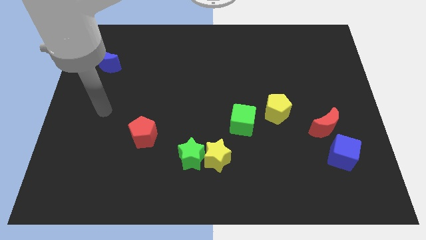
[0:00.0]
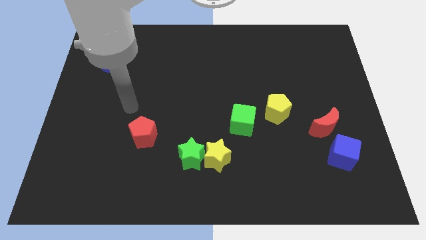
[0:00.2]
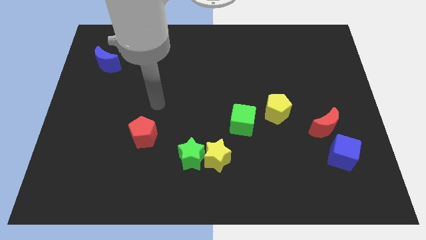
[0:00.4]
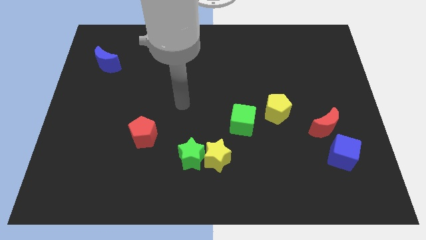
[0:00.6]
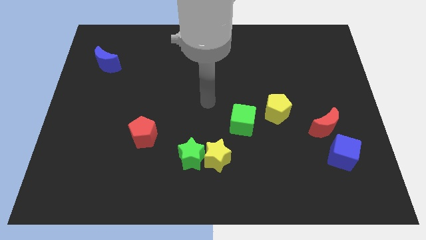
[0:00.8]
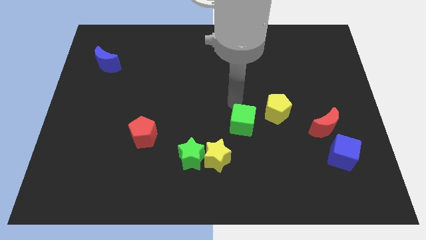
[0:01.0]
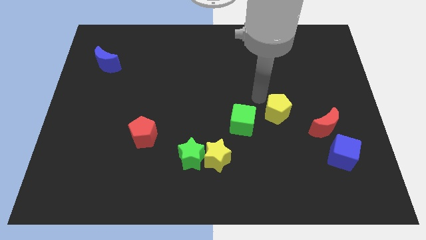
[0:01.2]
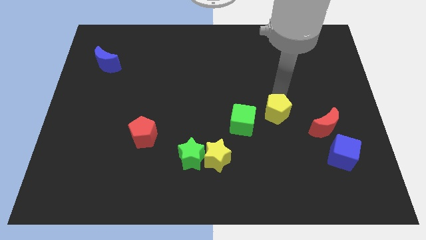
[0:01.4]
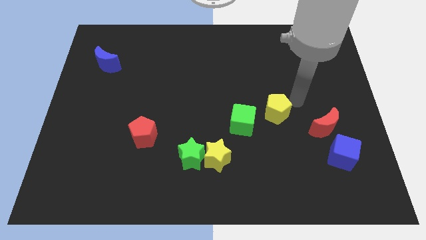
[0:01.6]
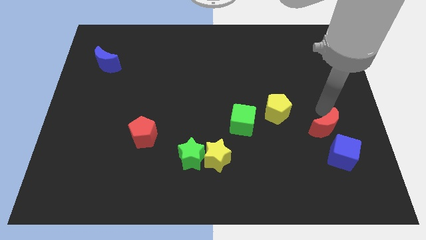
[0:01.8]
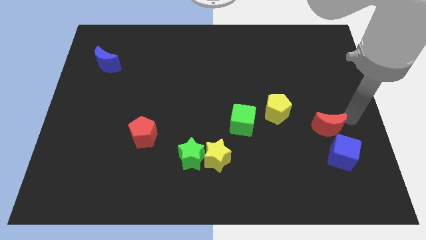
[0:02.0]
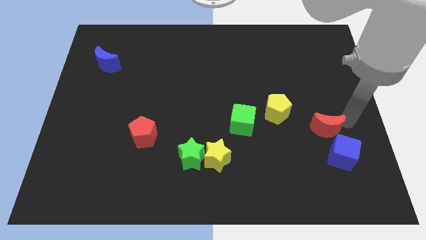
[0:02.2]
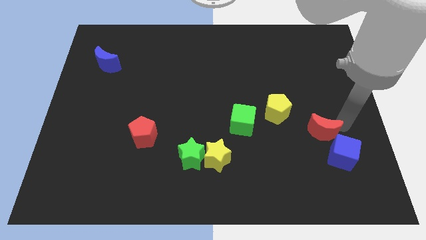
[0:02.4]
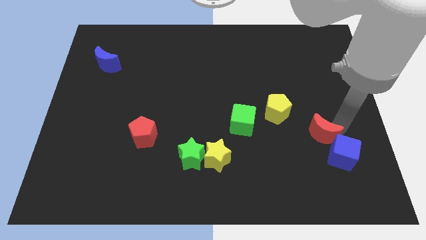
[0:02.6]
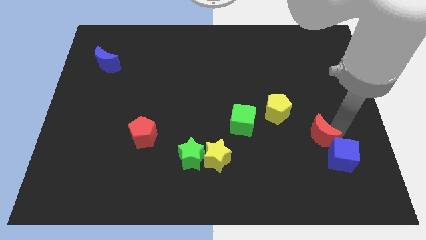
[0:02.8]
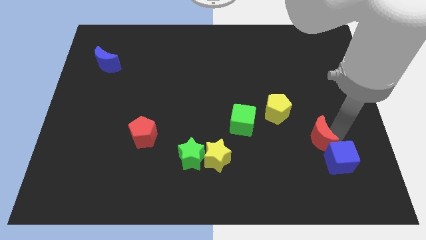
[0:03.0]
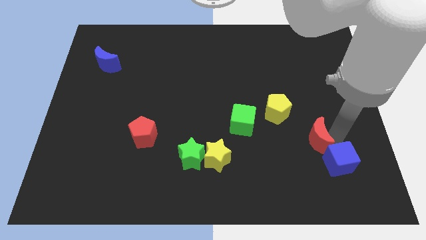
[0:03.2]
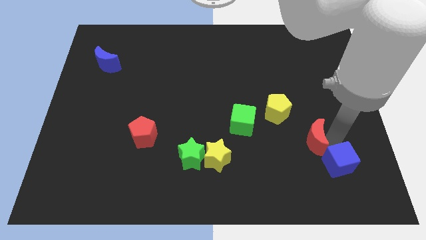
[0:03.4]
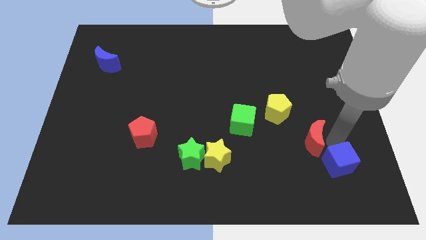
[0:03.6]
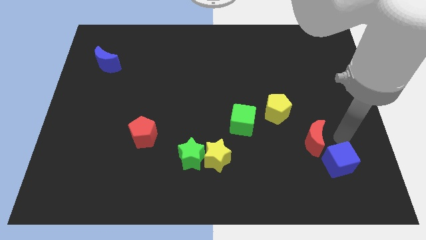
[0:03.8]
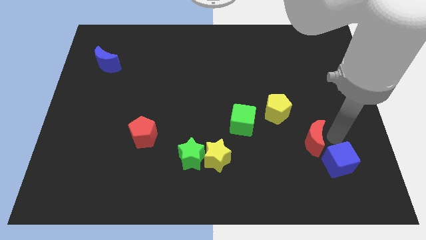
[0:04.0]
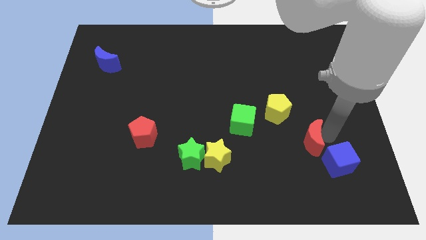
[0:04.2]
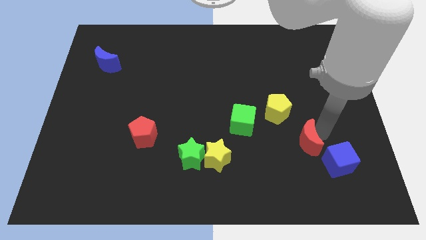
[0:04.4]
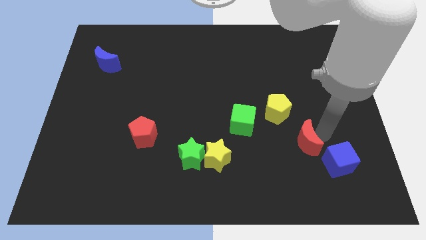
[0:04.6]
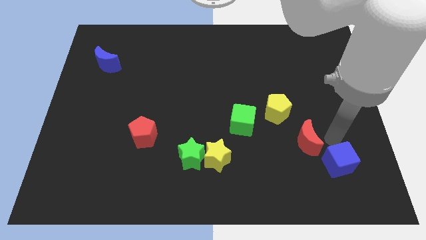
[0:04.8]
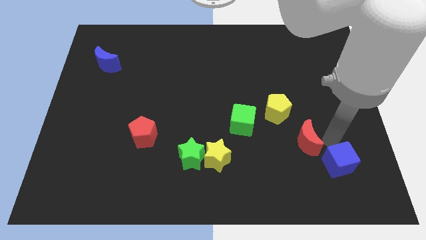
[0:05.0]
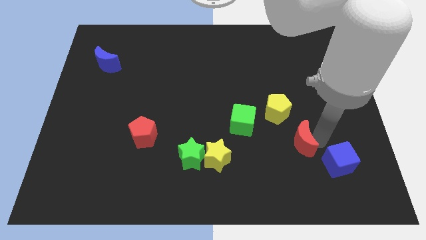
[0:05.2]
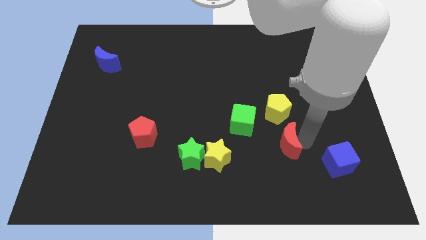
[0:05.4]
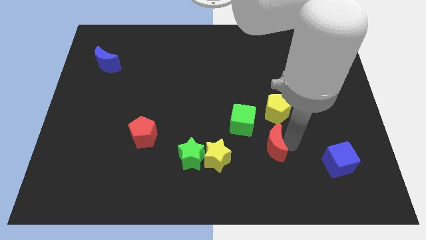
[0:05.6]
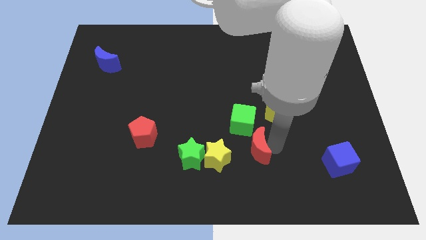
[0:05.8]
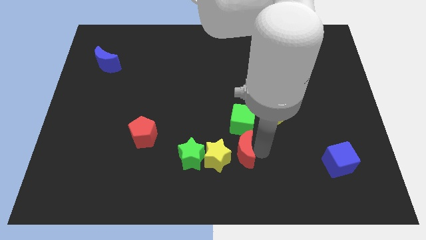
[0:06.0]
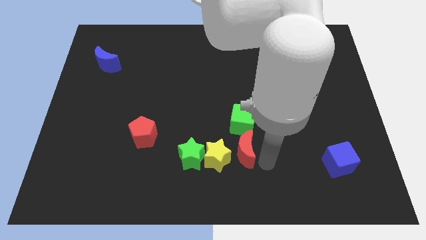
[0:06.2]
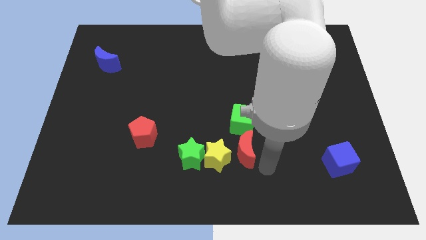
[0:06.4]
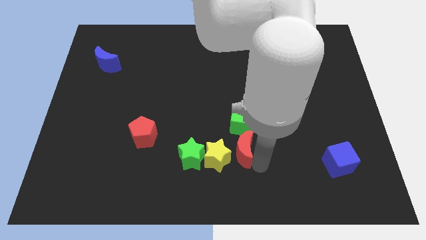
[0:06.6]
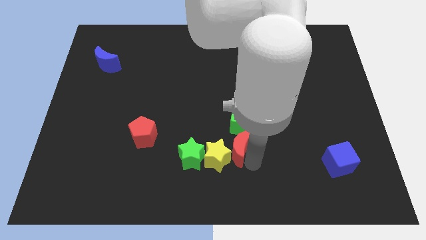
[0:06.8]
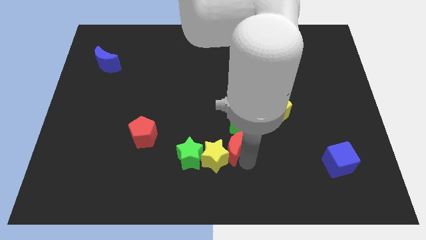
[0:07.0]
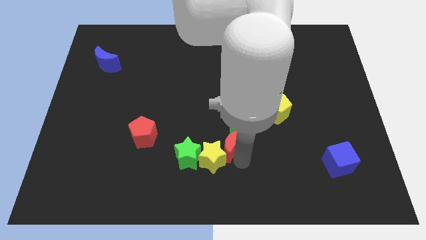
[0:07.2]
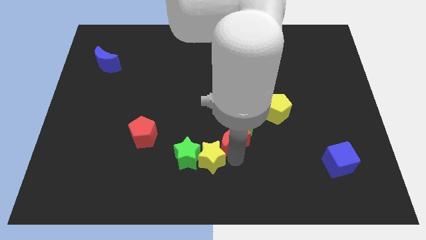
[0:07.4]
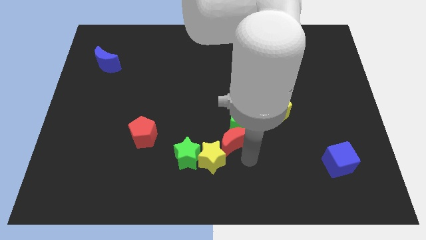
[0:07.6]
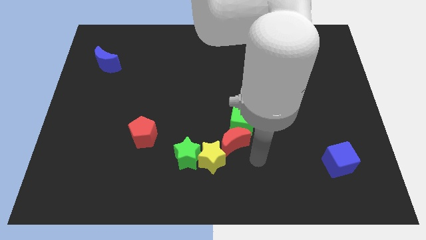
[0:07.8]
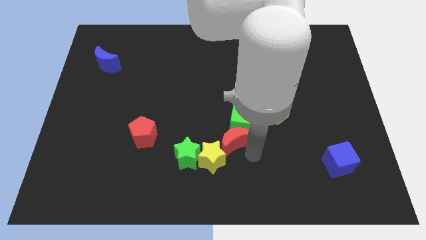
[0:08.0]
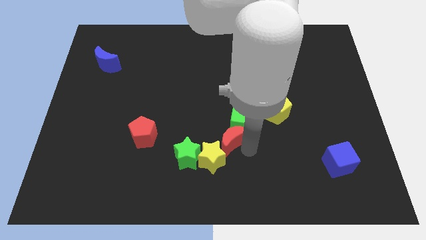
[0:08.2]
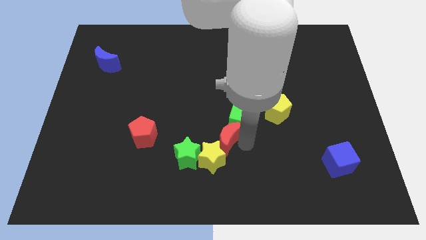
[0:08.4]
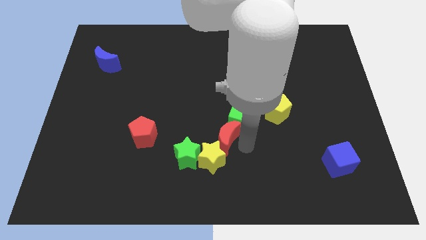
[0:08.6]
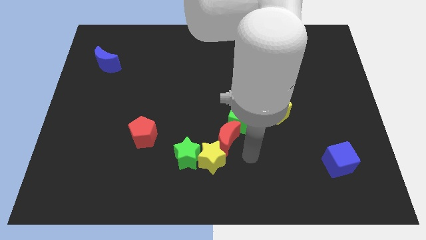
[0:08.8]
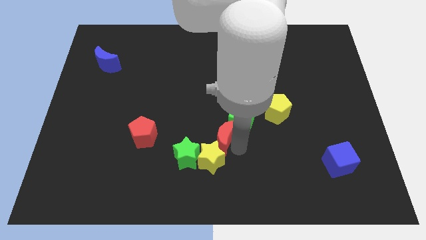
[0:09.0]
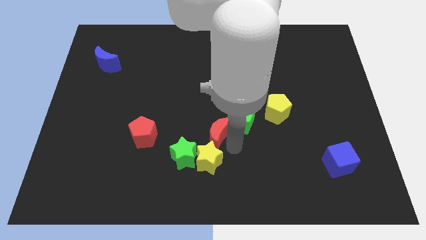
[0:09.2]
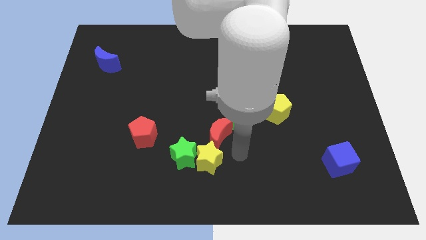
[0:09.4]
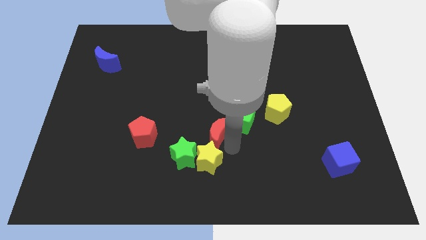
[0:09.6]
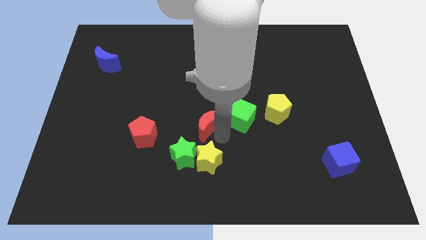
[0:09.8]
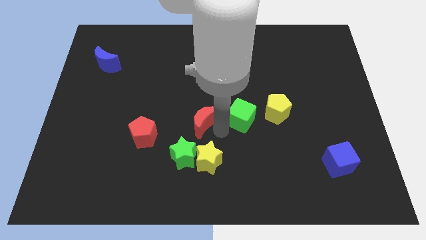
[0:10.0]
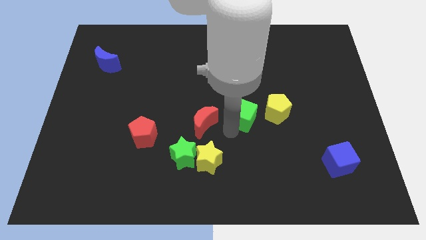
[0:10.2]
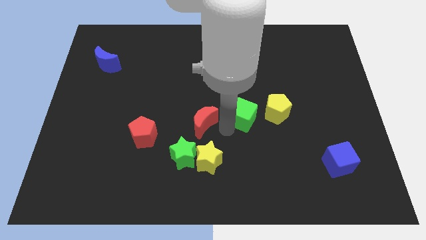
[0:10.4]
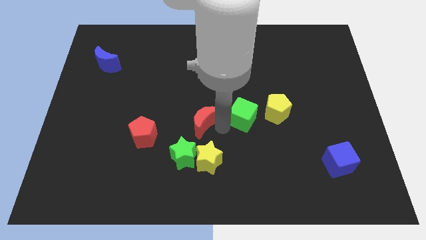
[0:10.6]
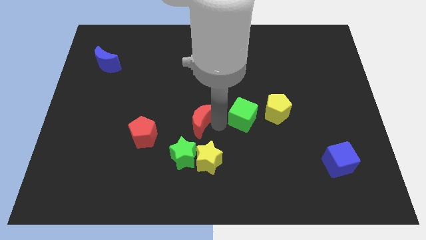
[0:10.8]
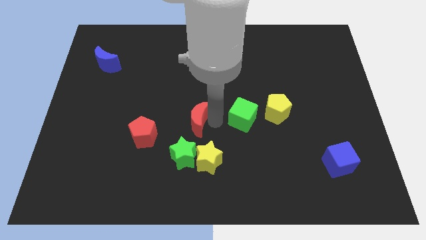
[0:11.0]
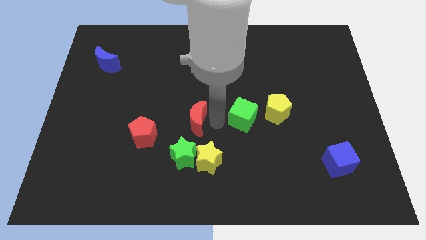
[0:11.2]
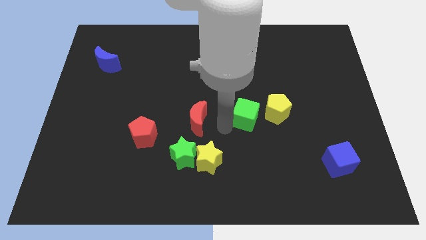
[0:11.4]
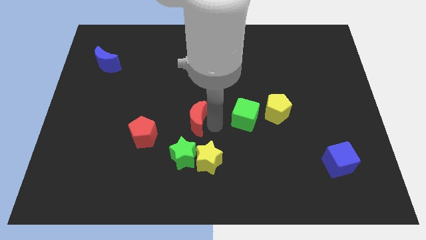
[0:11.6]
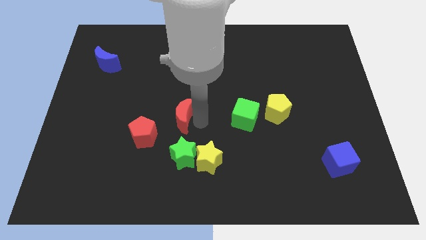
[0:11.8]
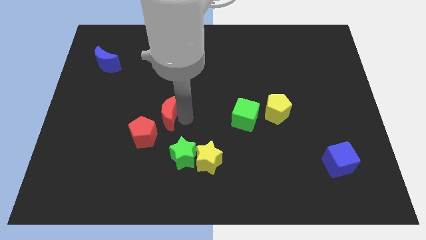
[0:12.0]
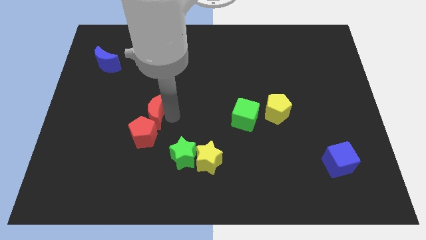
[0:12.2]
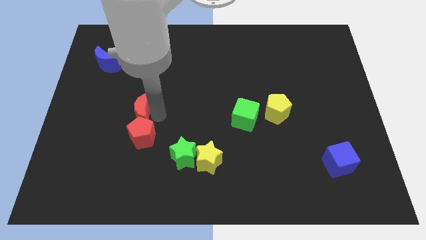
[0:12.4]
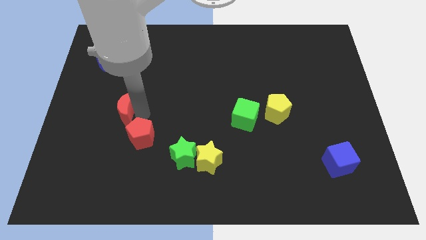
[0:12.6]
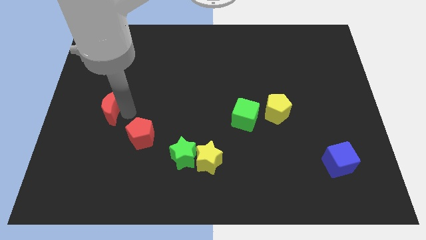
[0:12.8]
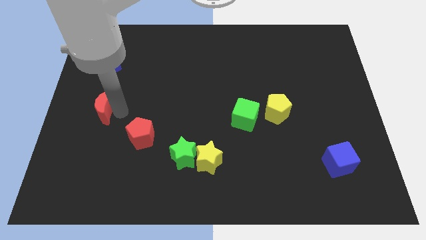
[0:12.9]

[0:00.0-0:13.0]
put the red moon to the center left
